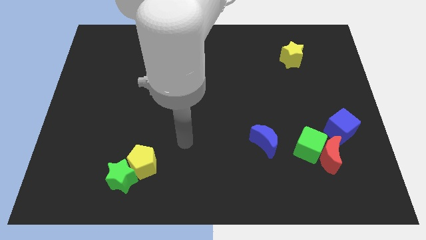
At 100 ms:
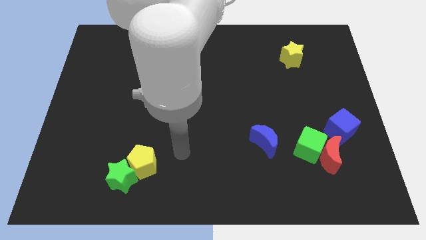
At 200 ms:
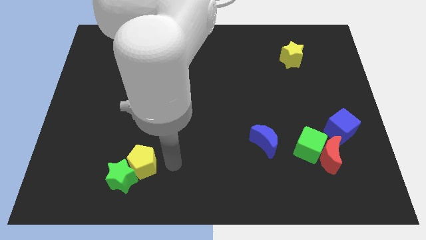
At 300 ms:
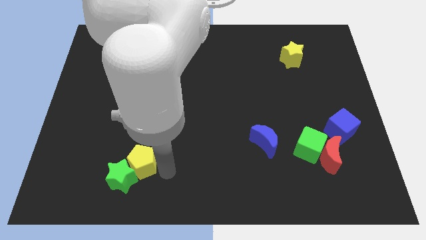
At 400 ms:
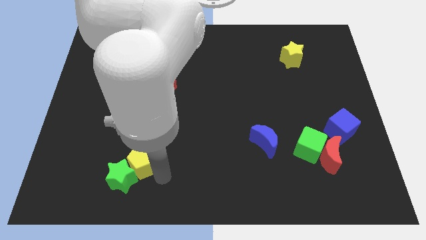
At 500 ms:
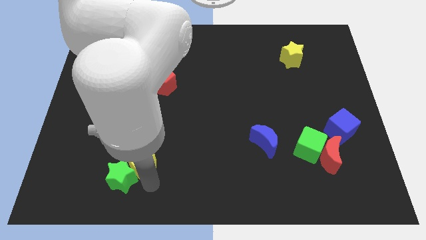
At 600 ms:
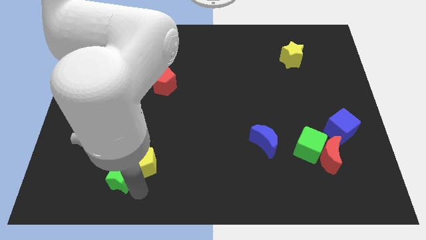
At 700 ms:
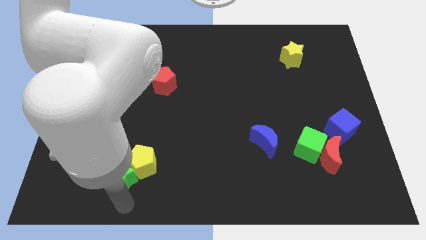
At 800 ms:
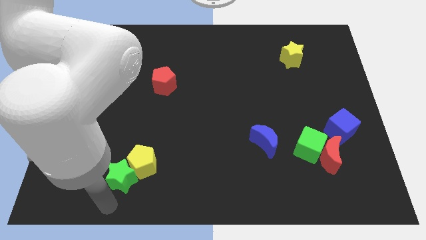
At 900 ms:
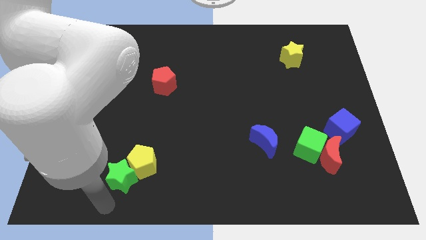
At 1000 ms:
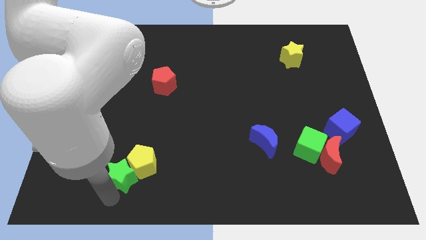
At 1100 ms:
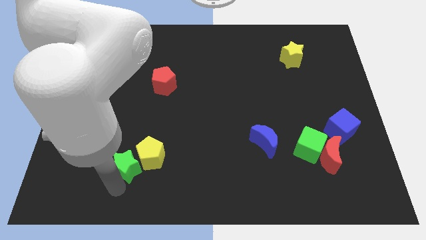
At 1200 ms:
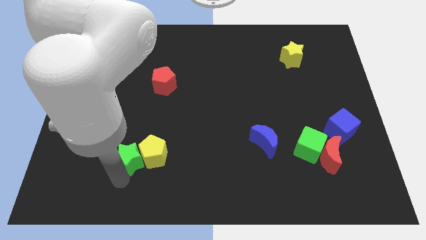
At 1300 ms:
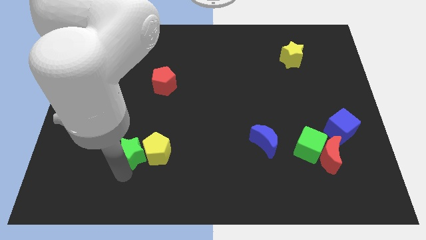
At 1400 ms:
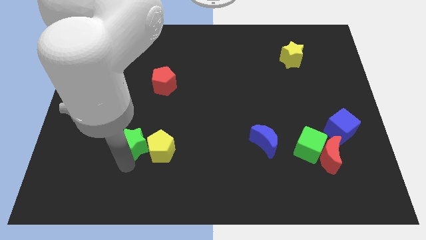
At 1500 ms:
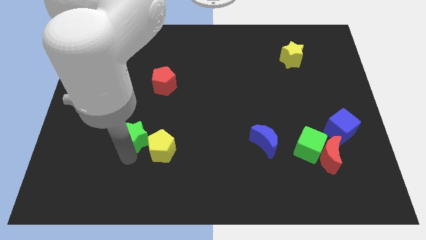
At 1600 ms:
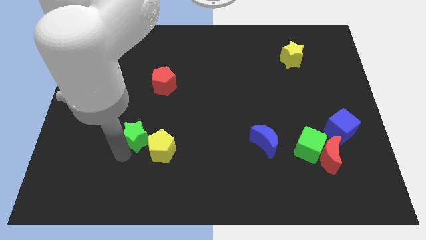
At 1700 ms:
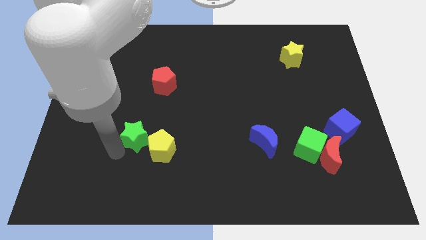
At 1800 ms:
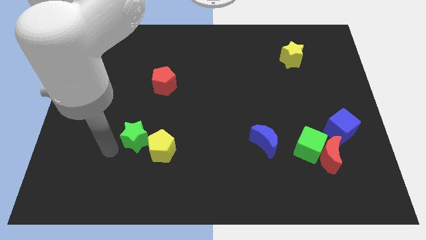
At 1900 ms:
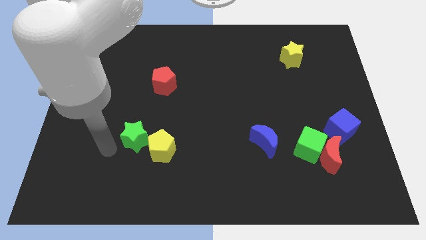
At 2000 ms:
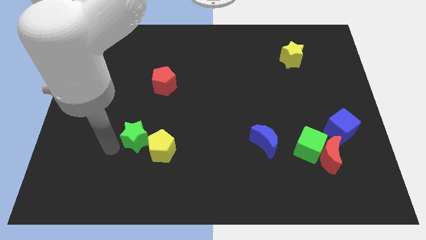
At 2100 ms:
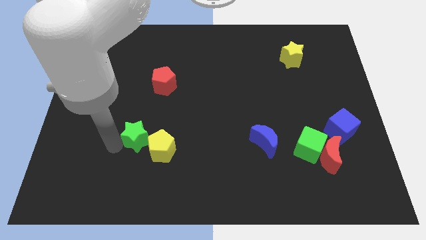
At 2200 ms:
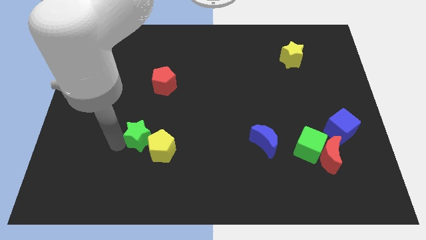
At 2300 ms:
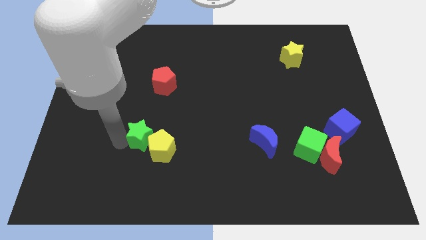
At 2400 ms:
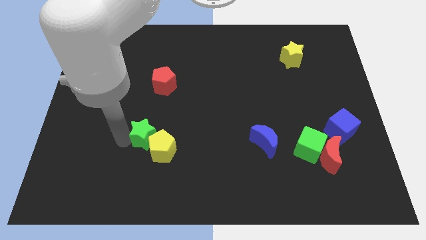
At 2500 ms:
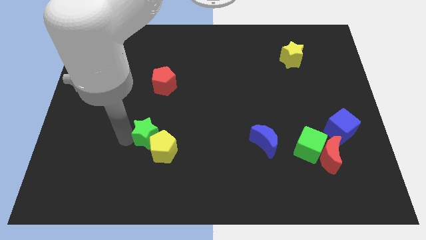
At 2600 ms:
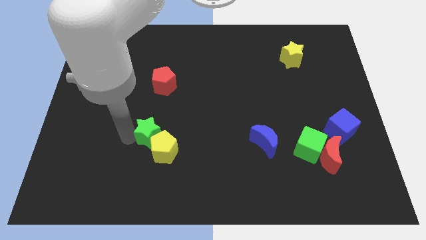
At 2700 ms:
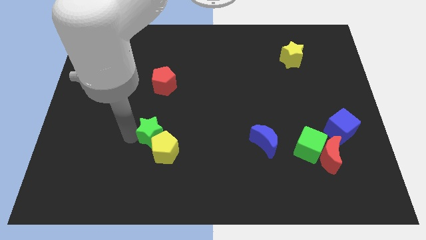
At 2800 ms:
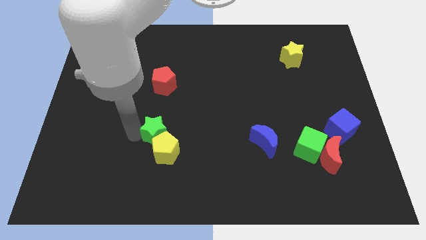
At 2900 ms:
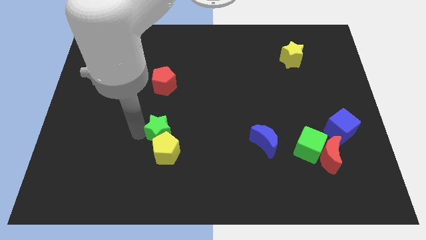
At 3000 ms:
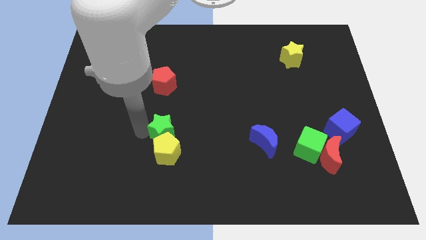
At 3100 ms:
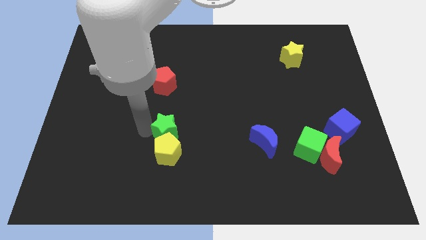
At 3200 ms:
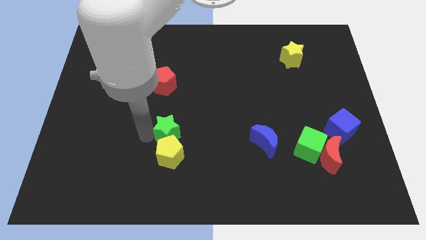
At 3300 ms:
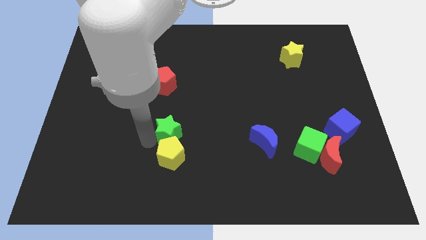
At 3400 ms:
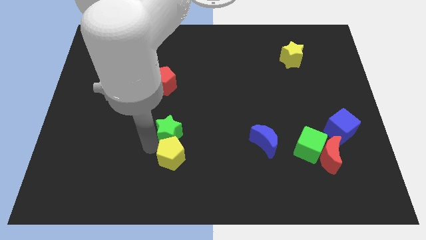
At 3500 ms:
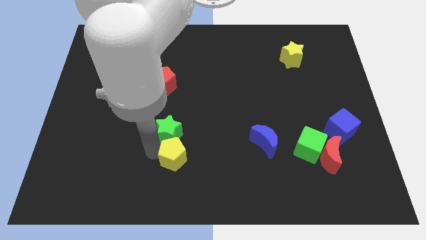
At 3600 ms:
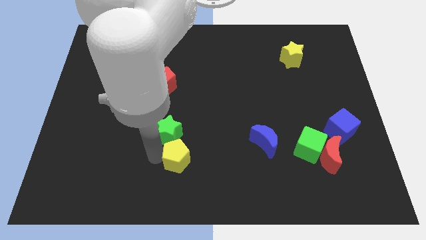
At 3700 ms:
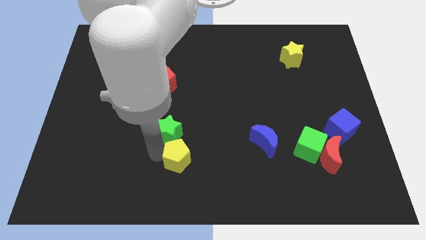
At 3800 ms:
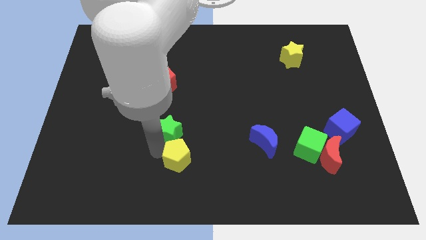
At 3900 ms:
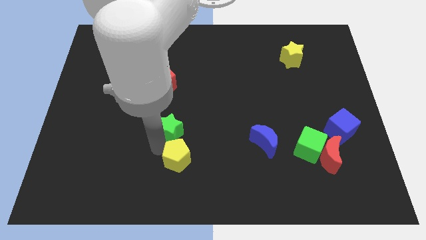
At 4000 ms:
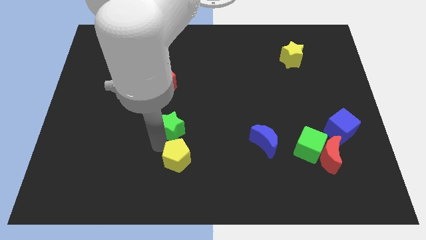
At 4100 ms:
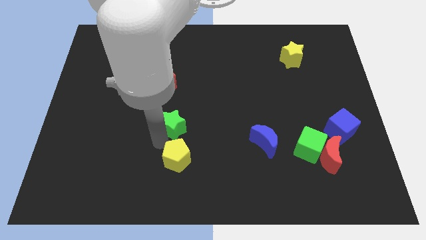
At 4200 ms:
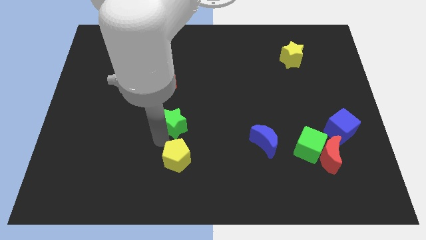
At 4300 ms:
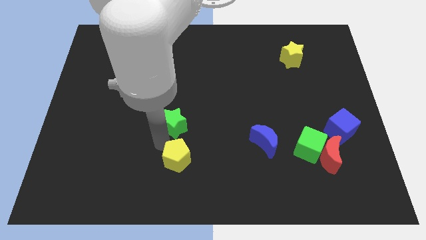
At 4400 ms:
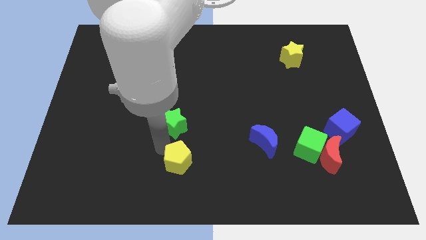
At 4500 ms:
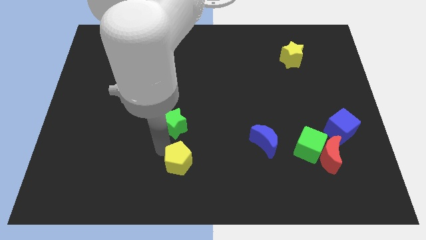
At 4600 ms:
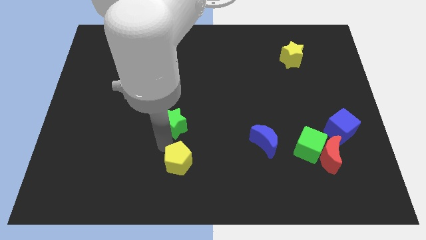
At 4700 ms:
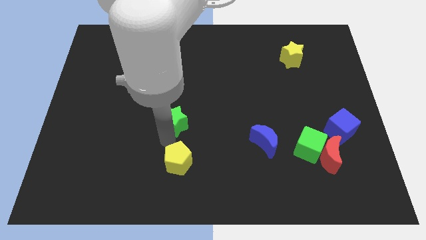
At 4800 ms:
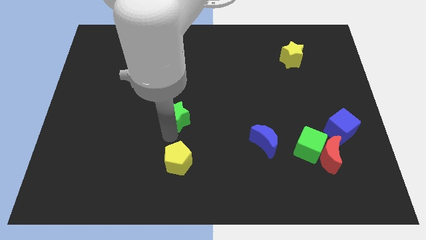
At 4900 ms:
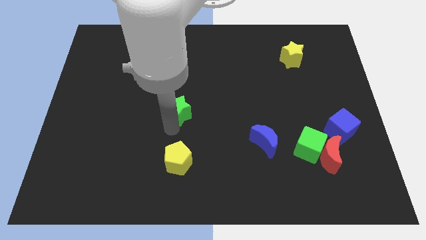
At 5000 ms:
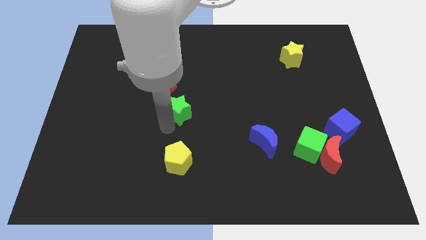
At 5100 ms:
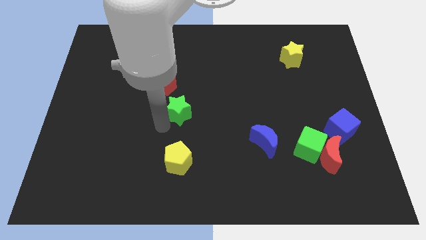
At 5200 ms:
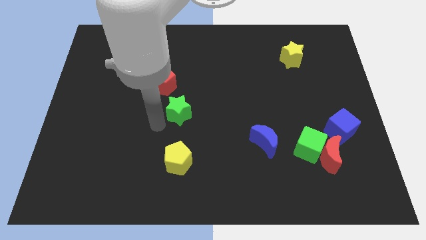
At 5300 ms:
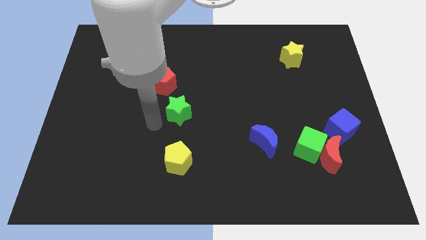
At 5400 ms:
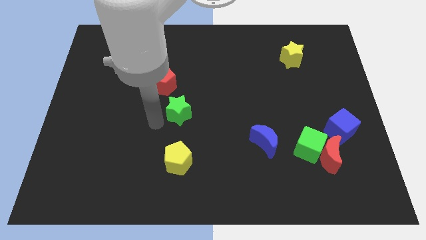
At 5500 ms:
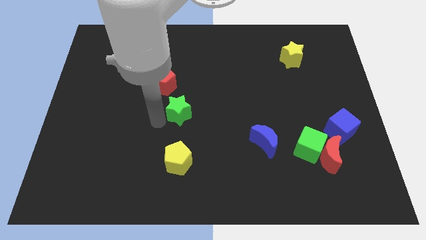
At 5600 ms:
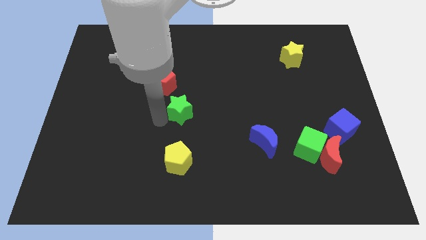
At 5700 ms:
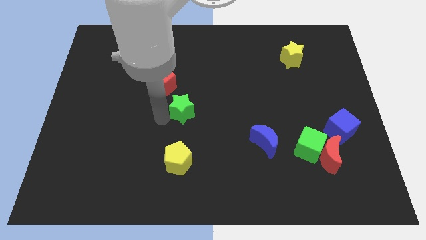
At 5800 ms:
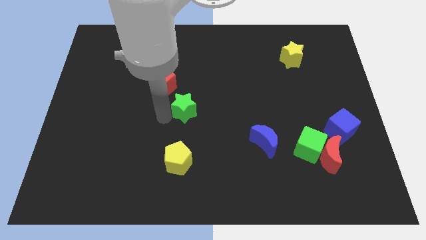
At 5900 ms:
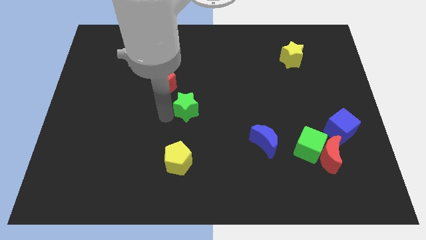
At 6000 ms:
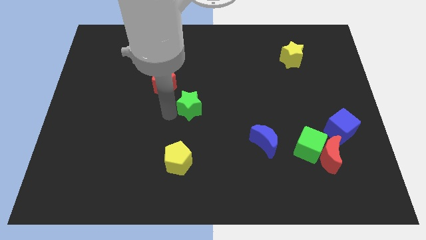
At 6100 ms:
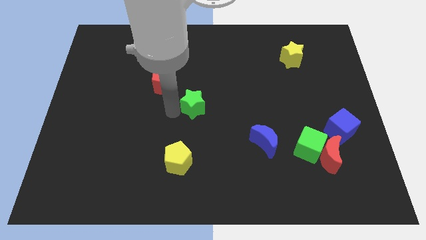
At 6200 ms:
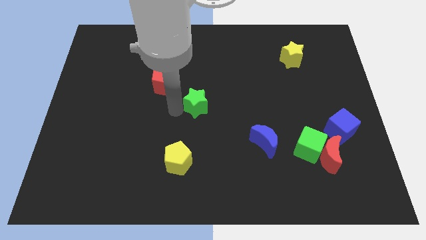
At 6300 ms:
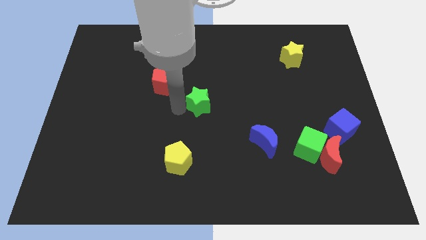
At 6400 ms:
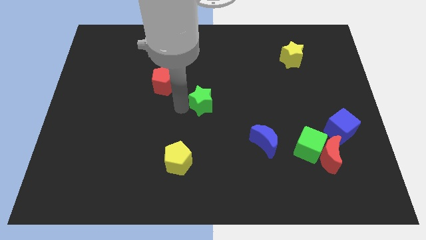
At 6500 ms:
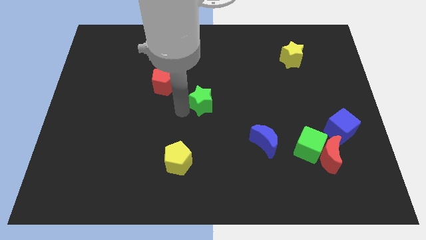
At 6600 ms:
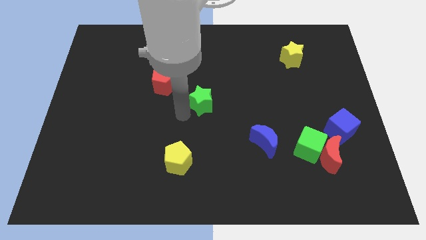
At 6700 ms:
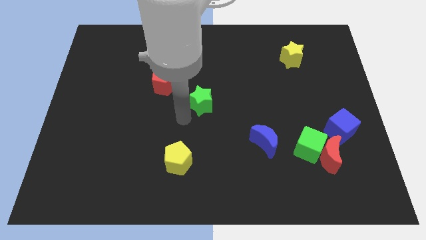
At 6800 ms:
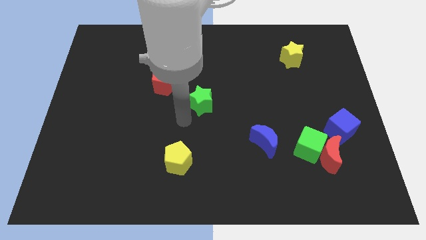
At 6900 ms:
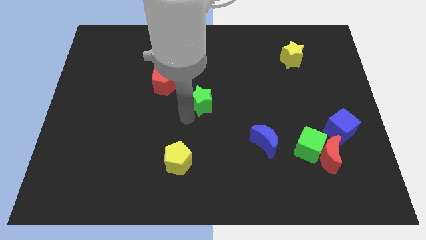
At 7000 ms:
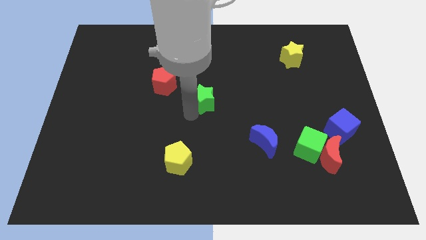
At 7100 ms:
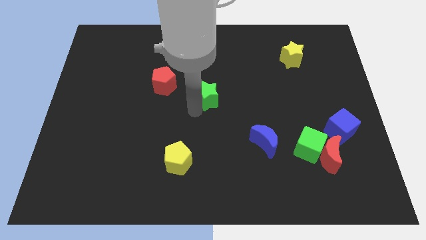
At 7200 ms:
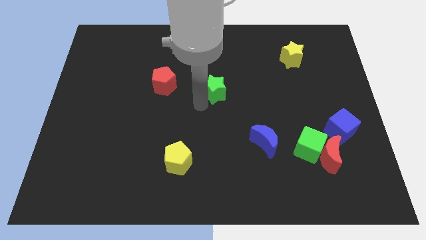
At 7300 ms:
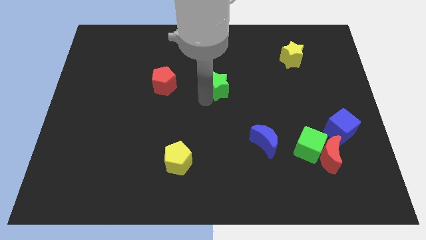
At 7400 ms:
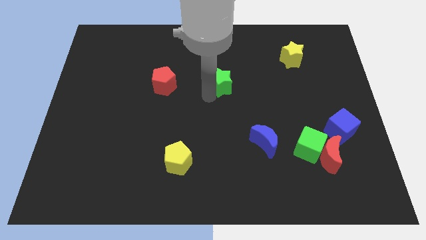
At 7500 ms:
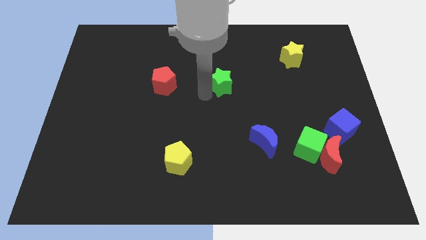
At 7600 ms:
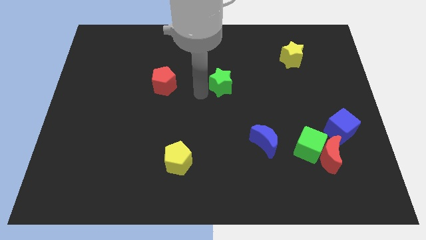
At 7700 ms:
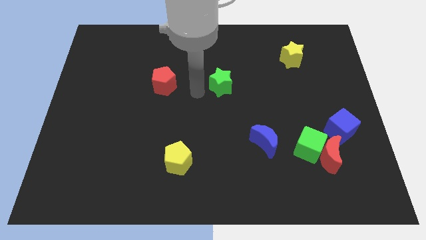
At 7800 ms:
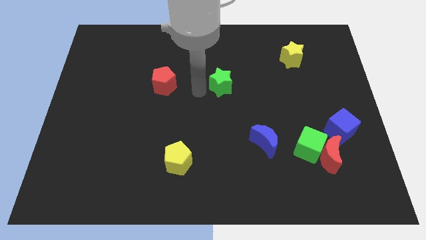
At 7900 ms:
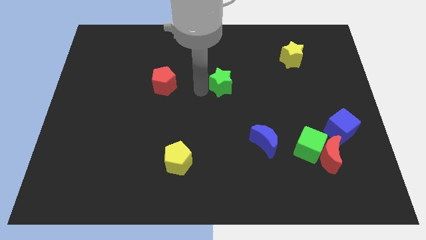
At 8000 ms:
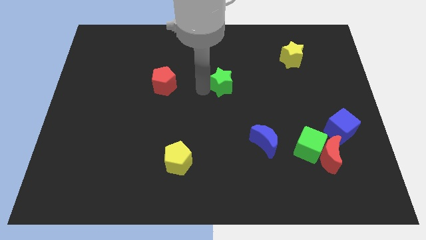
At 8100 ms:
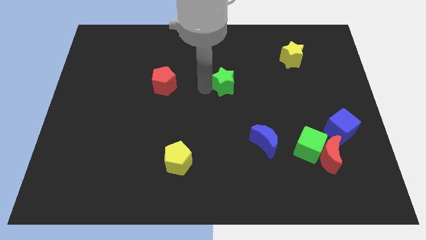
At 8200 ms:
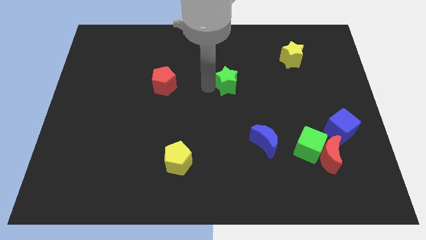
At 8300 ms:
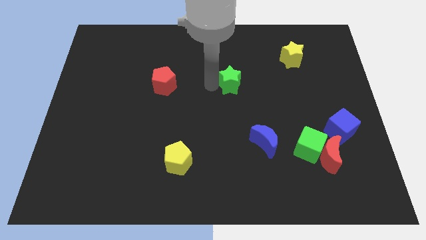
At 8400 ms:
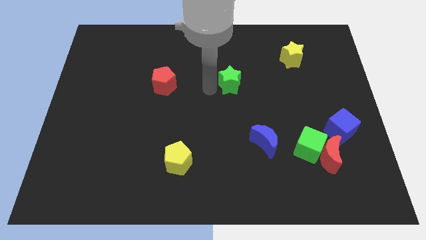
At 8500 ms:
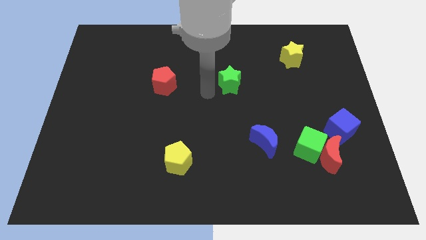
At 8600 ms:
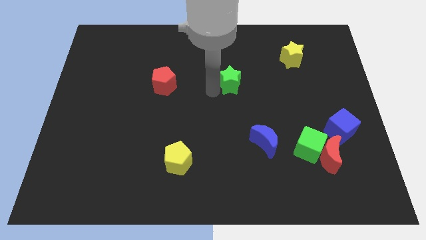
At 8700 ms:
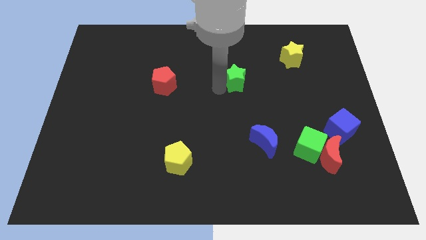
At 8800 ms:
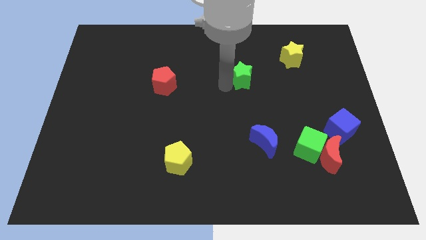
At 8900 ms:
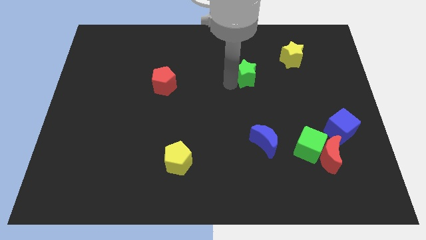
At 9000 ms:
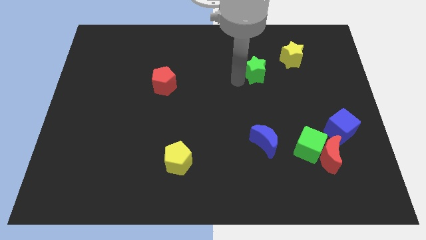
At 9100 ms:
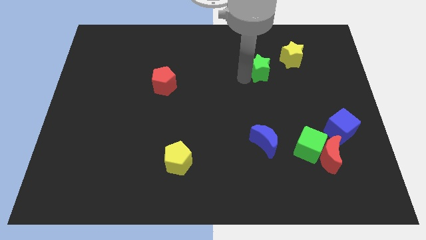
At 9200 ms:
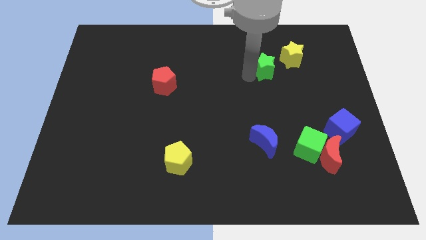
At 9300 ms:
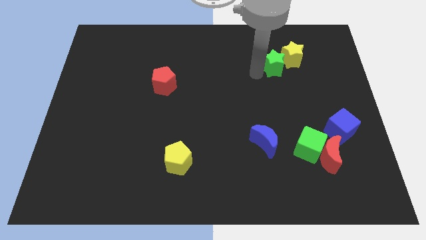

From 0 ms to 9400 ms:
move the green star next to the yellow star
